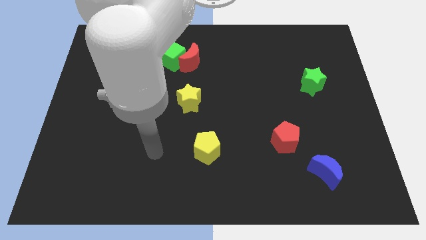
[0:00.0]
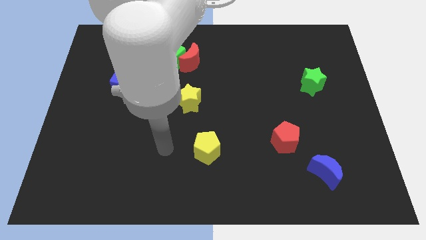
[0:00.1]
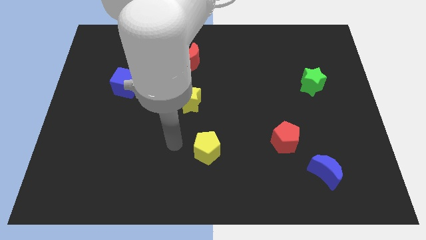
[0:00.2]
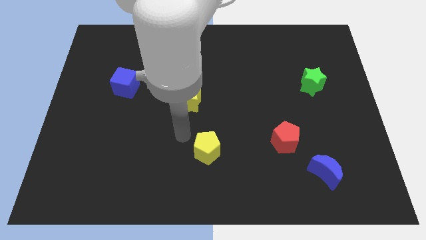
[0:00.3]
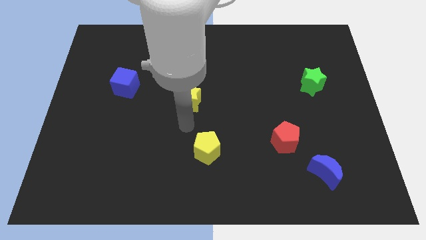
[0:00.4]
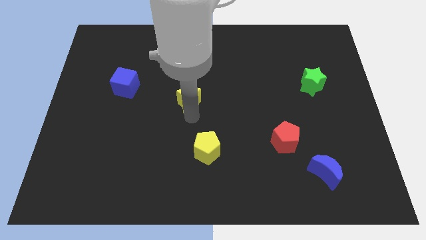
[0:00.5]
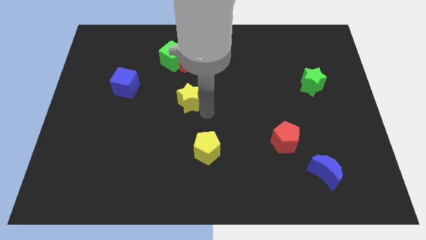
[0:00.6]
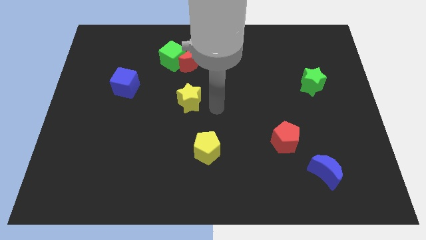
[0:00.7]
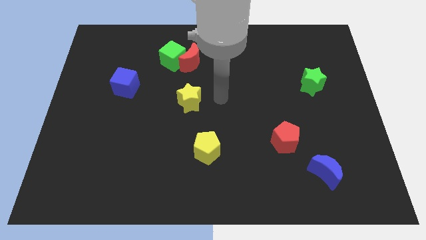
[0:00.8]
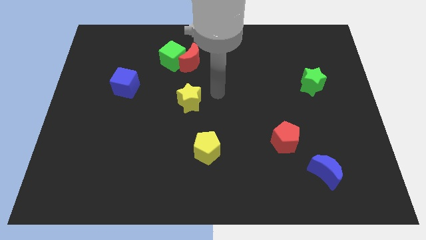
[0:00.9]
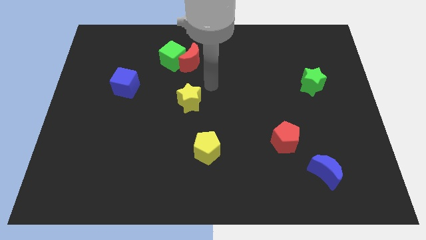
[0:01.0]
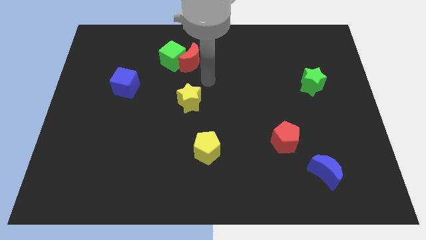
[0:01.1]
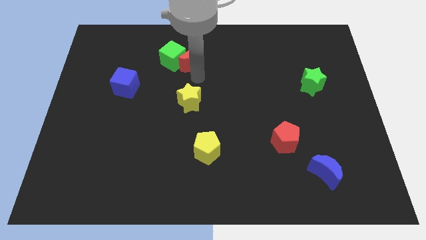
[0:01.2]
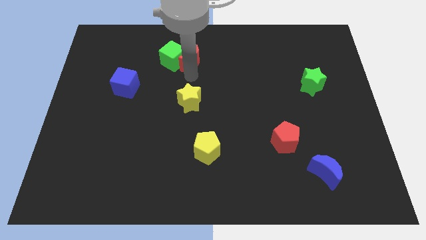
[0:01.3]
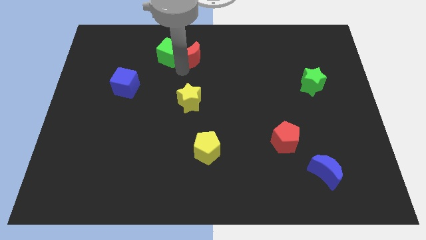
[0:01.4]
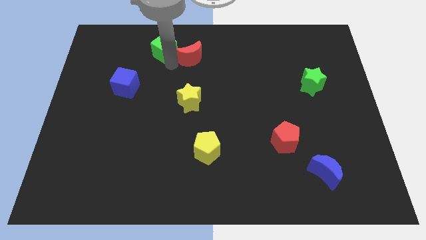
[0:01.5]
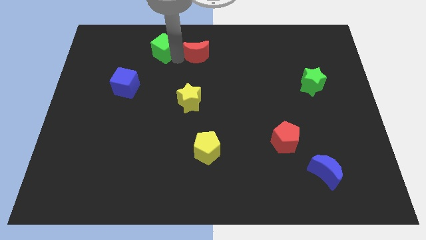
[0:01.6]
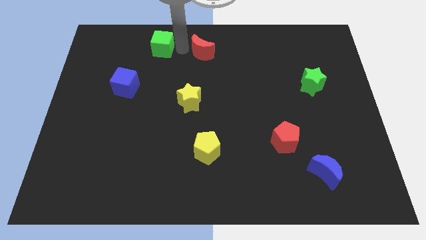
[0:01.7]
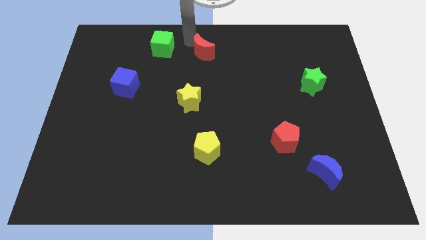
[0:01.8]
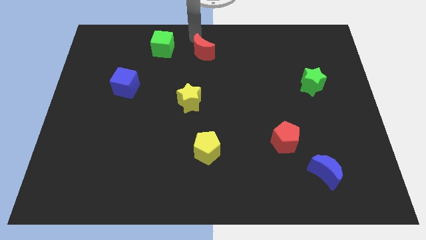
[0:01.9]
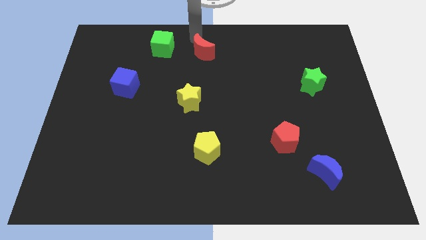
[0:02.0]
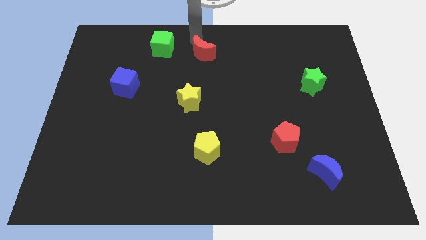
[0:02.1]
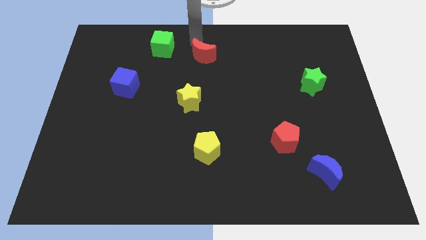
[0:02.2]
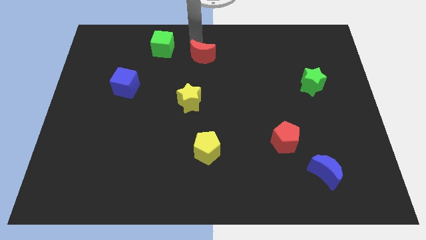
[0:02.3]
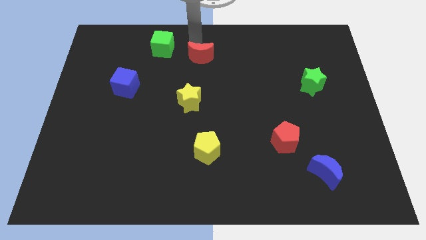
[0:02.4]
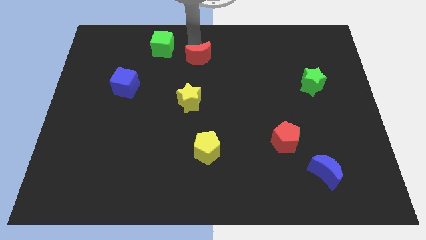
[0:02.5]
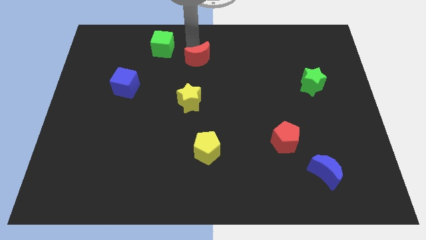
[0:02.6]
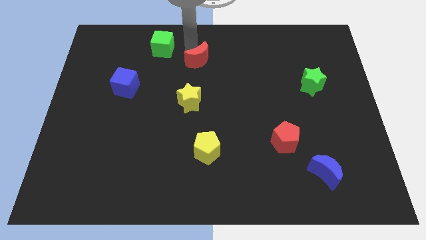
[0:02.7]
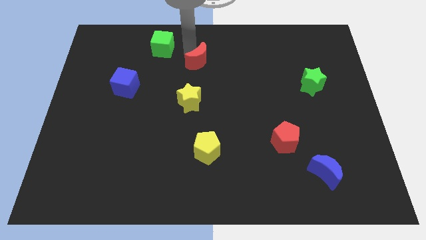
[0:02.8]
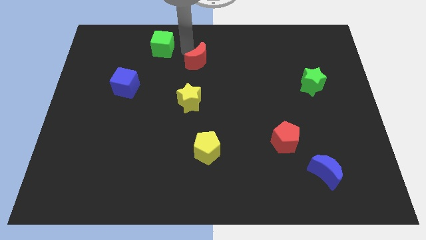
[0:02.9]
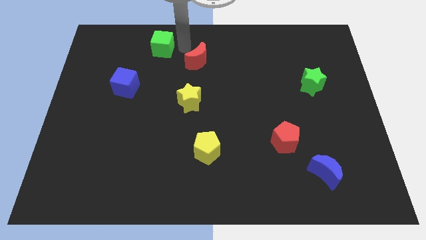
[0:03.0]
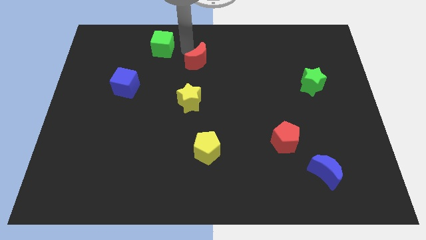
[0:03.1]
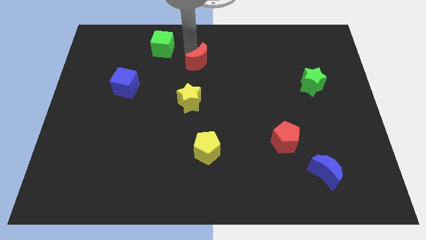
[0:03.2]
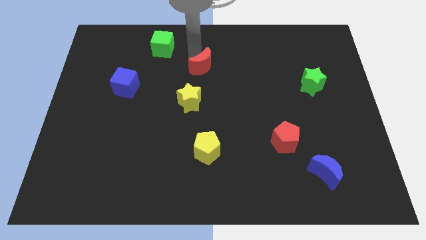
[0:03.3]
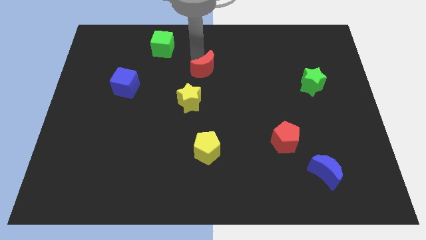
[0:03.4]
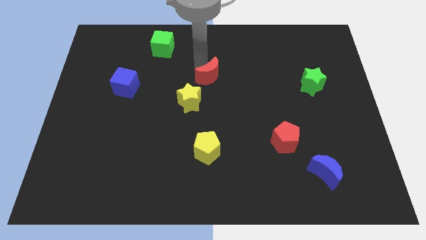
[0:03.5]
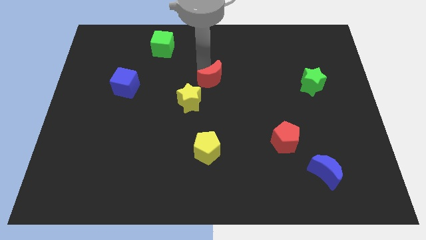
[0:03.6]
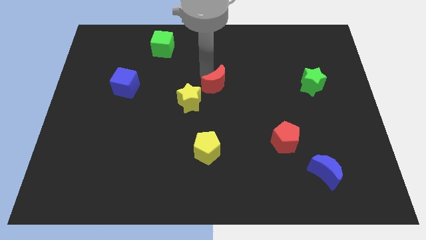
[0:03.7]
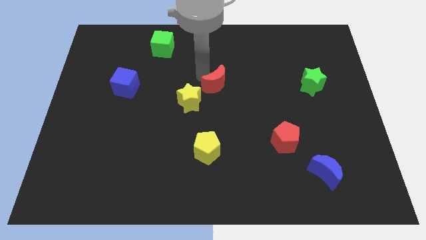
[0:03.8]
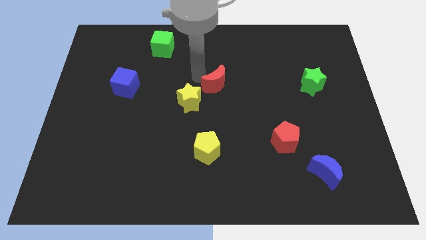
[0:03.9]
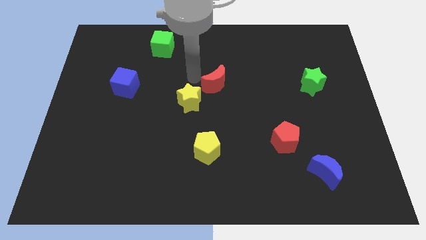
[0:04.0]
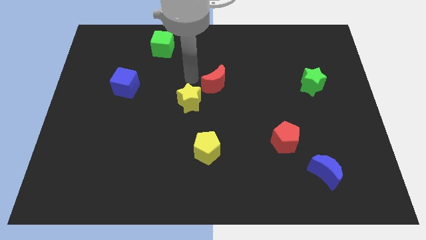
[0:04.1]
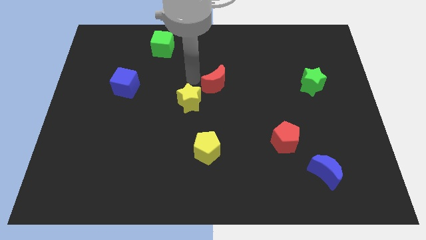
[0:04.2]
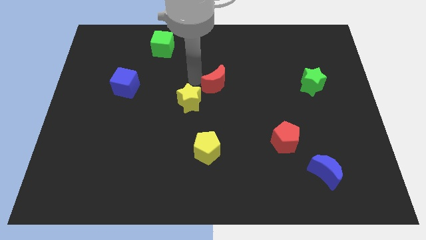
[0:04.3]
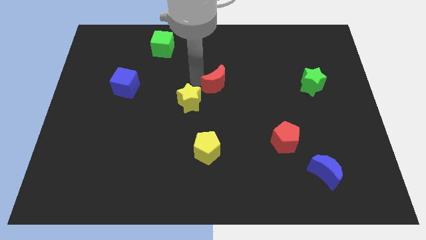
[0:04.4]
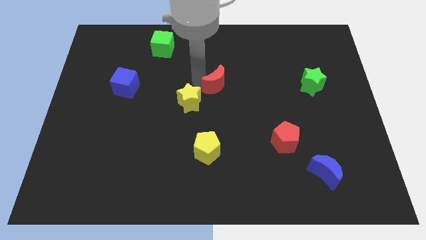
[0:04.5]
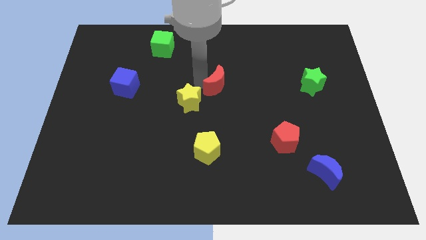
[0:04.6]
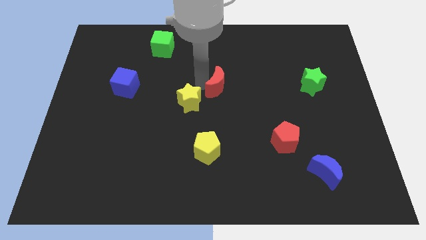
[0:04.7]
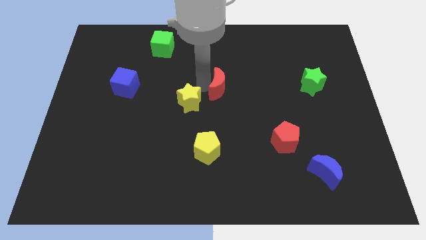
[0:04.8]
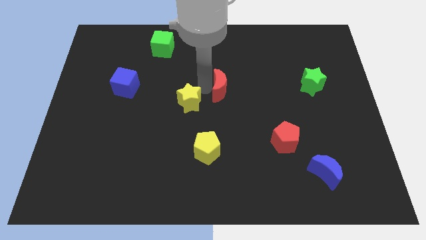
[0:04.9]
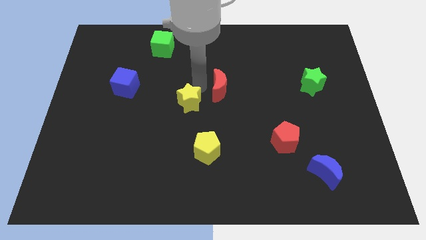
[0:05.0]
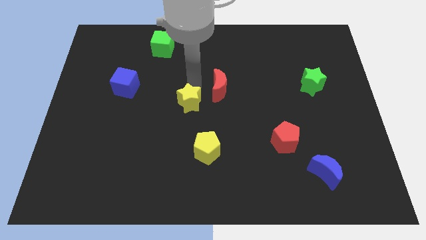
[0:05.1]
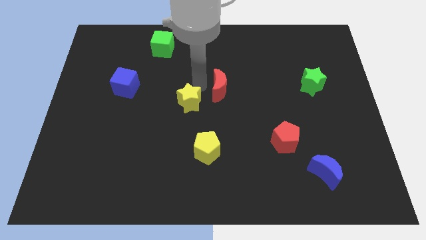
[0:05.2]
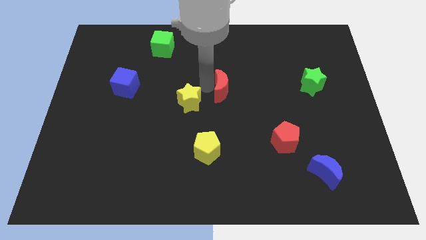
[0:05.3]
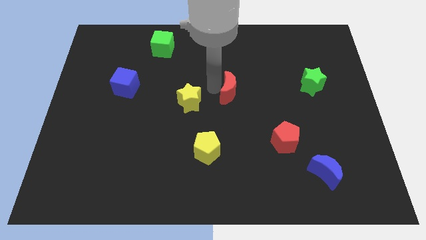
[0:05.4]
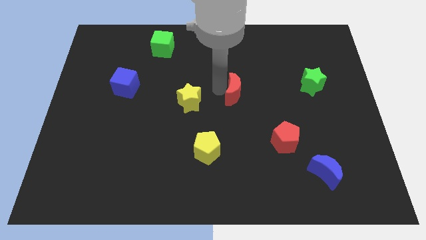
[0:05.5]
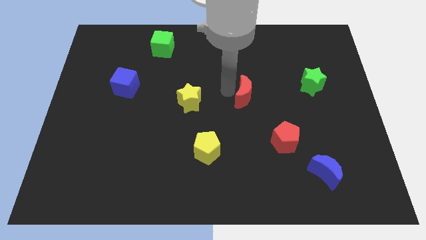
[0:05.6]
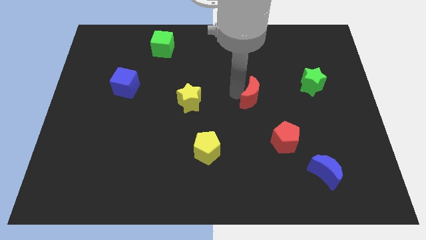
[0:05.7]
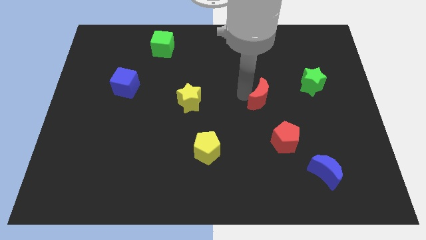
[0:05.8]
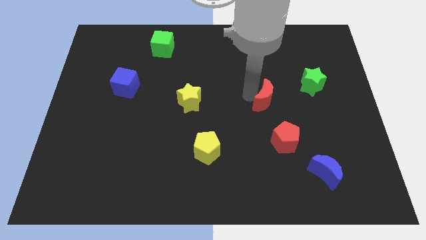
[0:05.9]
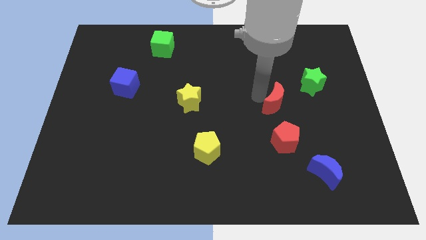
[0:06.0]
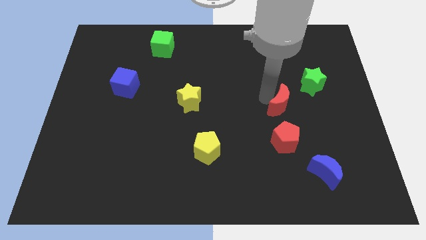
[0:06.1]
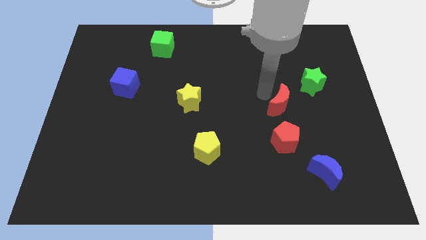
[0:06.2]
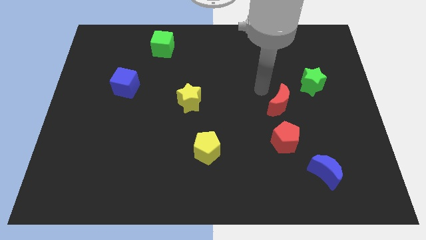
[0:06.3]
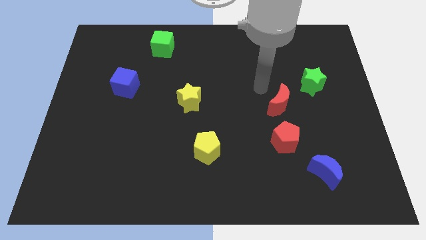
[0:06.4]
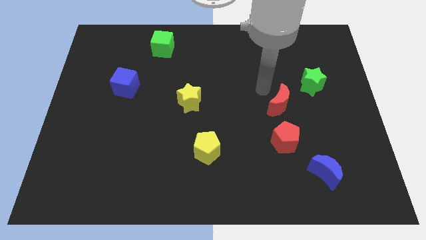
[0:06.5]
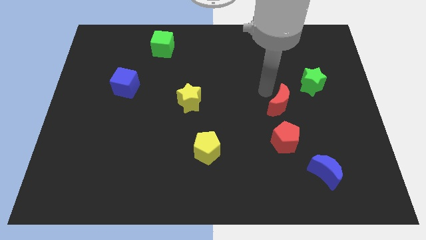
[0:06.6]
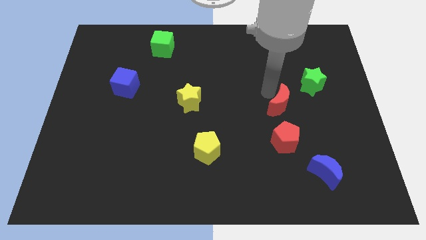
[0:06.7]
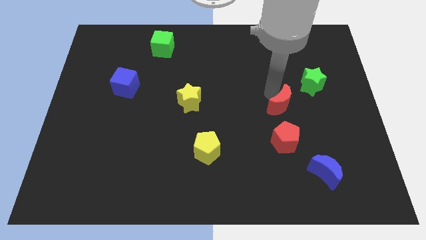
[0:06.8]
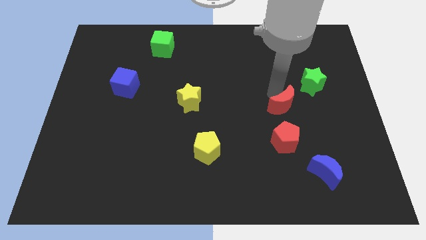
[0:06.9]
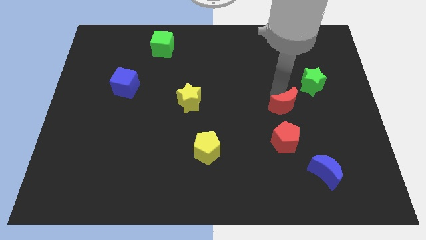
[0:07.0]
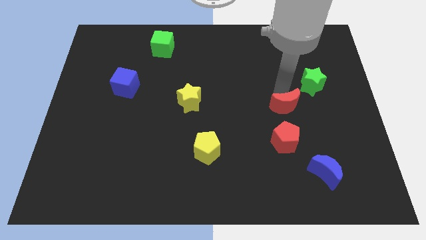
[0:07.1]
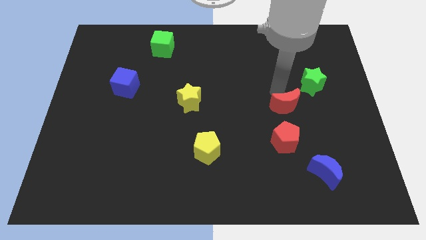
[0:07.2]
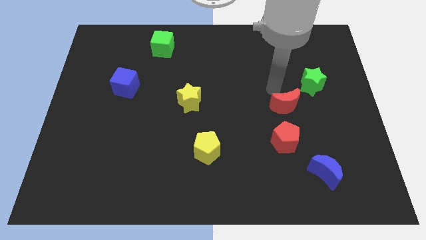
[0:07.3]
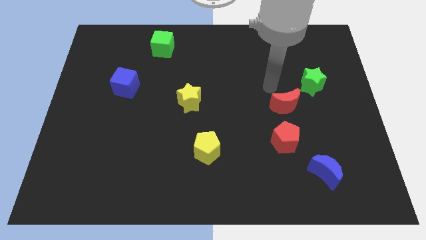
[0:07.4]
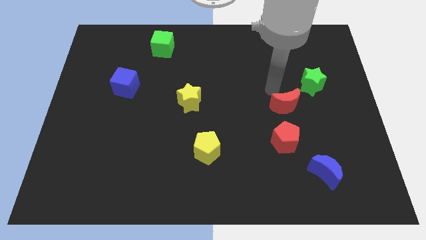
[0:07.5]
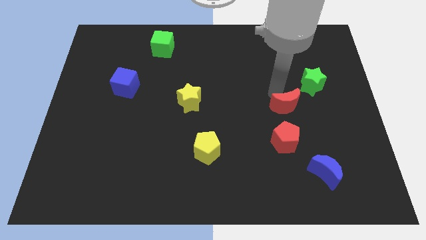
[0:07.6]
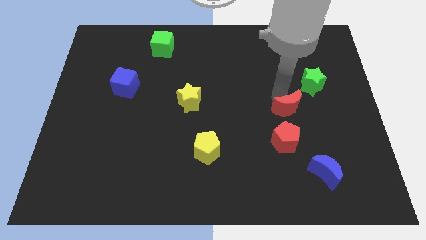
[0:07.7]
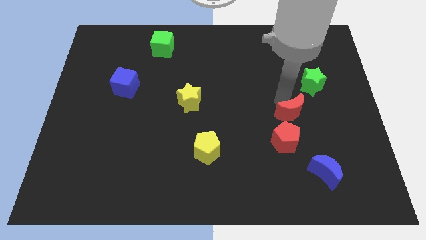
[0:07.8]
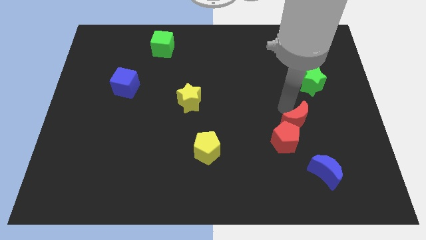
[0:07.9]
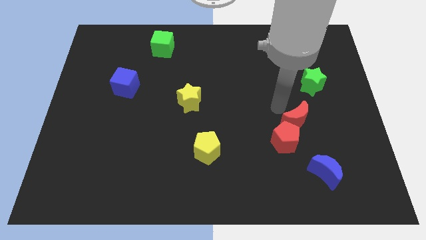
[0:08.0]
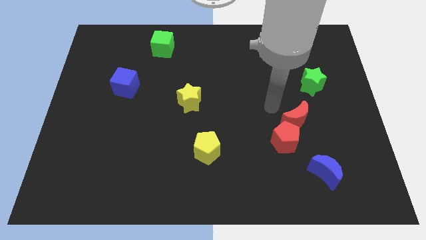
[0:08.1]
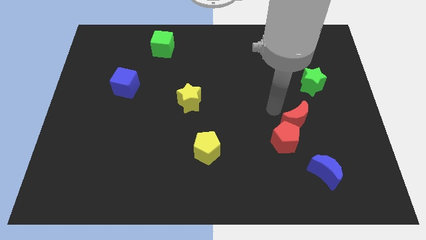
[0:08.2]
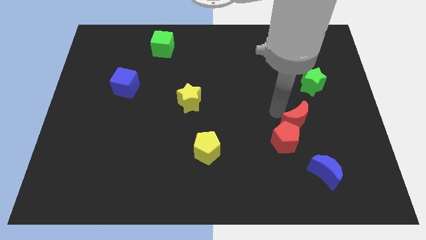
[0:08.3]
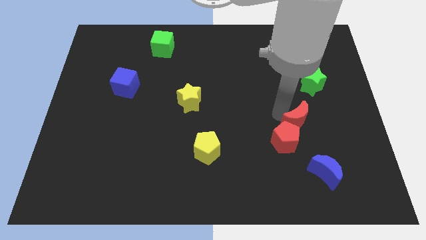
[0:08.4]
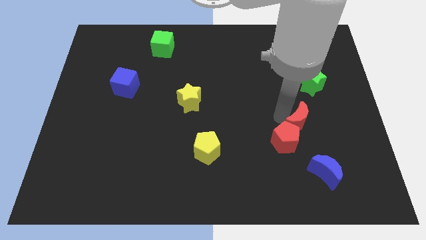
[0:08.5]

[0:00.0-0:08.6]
push the red moon to the right side of the red pentagon
